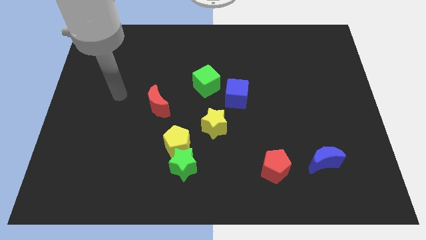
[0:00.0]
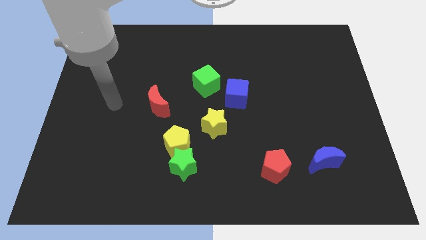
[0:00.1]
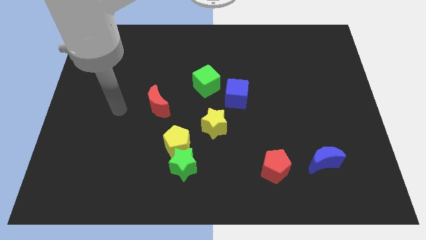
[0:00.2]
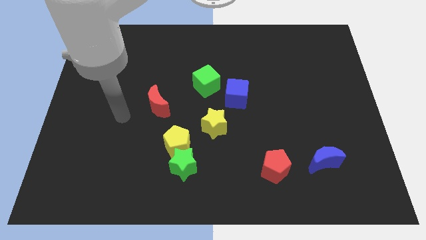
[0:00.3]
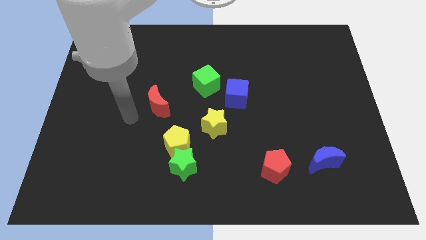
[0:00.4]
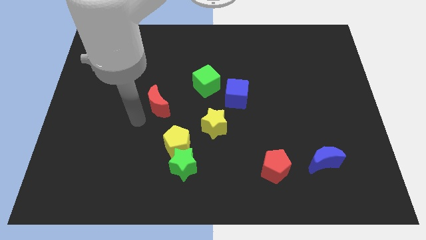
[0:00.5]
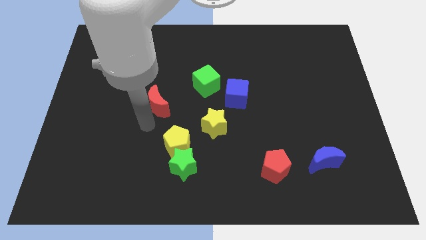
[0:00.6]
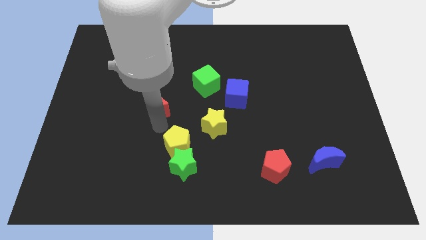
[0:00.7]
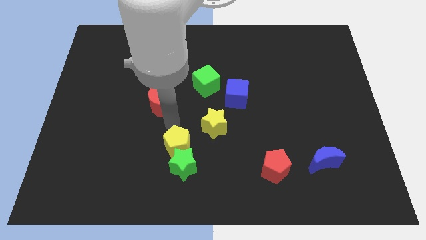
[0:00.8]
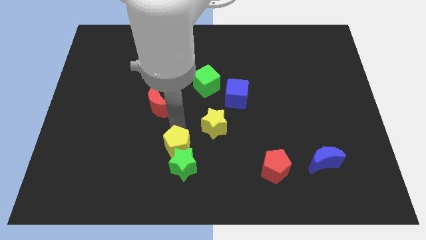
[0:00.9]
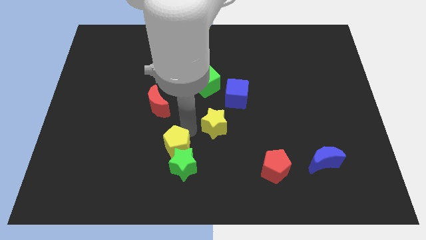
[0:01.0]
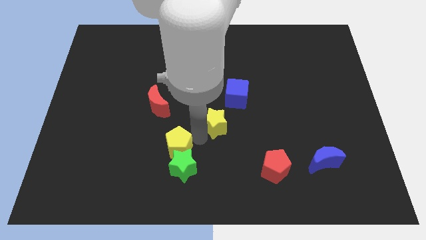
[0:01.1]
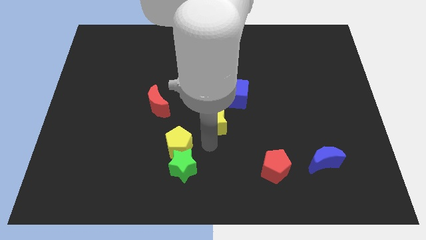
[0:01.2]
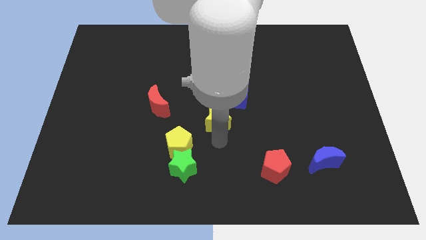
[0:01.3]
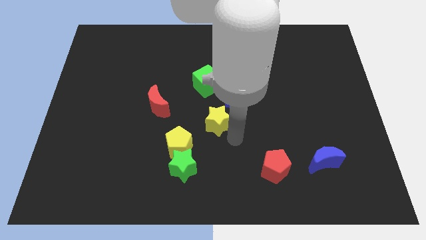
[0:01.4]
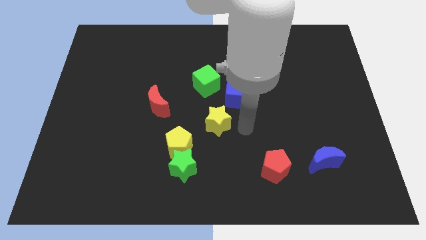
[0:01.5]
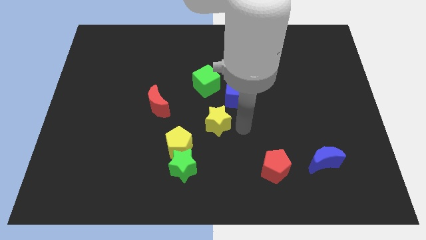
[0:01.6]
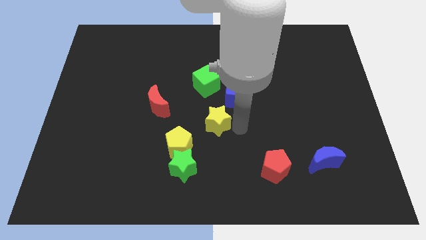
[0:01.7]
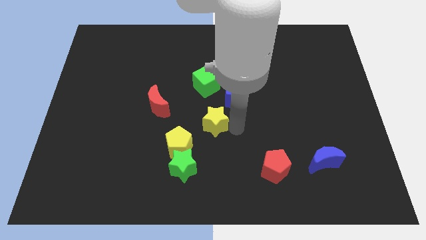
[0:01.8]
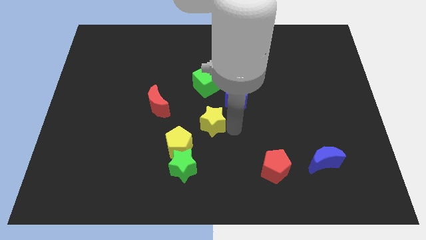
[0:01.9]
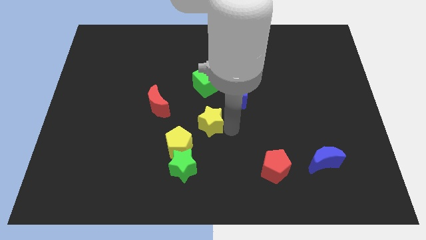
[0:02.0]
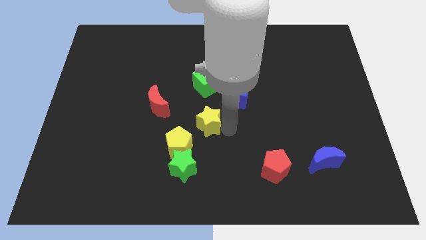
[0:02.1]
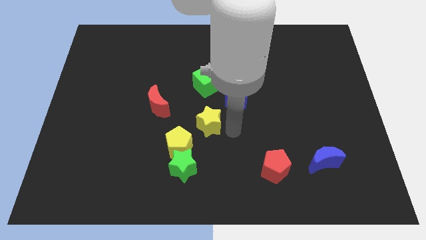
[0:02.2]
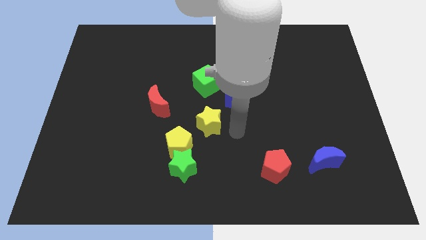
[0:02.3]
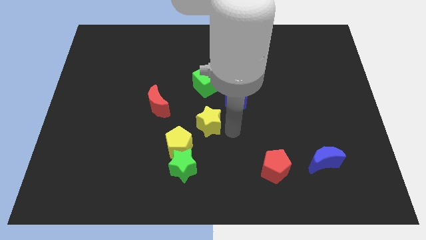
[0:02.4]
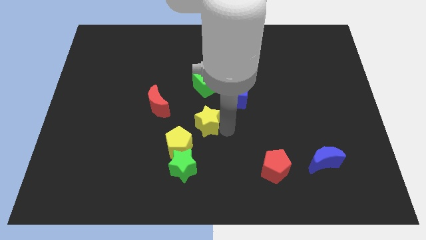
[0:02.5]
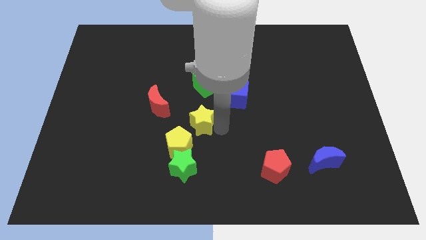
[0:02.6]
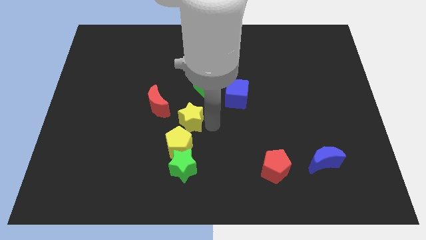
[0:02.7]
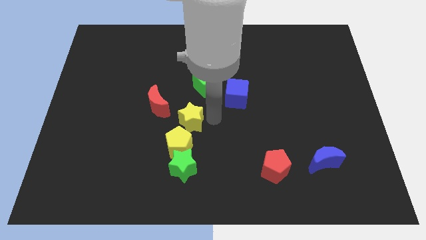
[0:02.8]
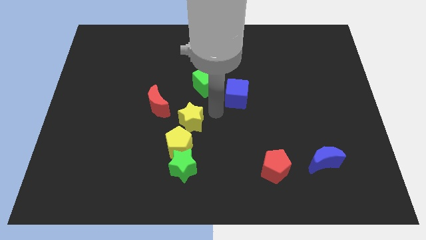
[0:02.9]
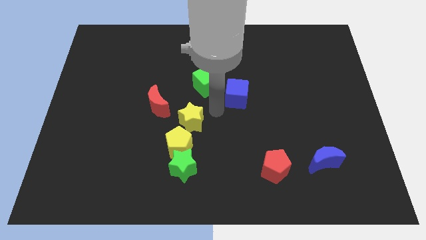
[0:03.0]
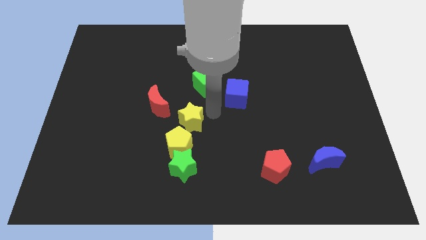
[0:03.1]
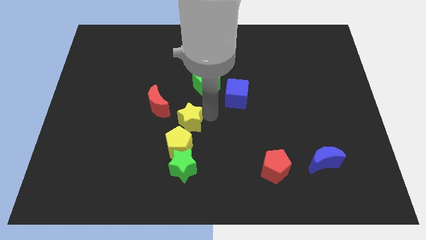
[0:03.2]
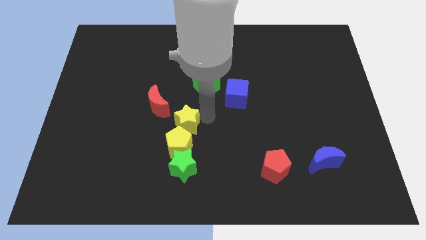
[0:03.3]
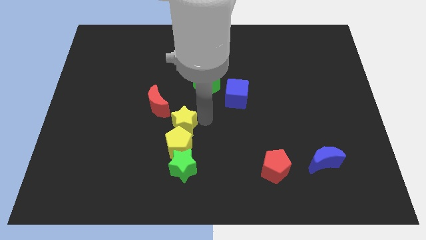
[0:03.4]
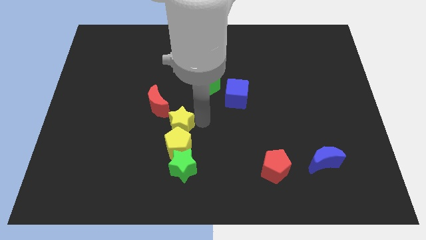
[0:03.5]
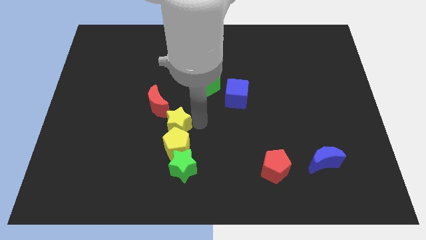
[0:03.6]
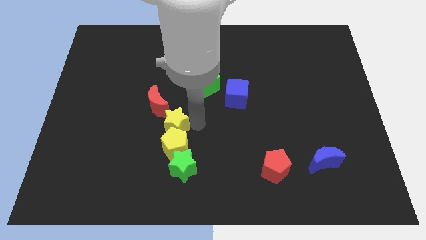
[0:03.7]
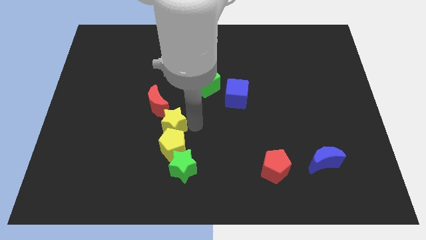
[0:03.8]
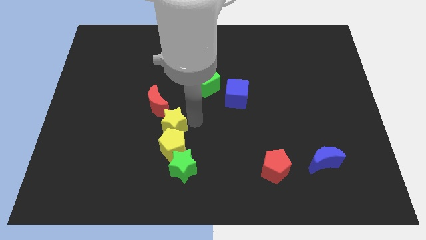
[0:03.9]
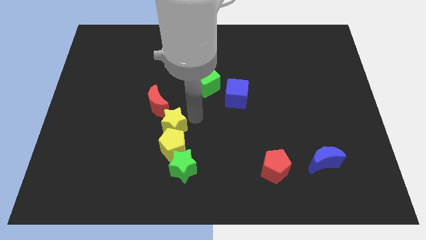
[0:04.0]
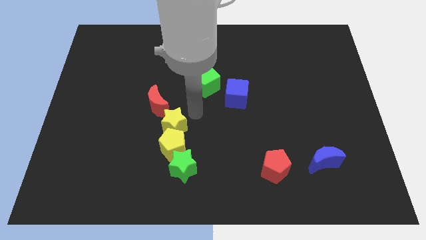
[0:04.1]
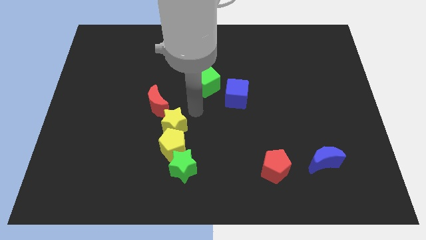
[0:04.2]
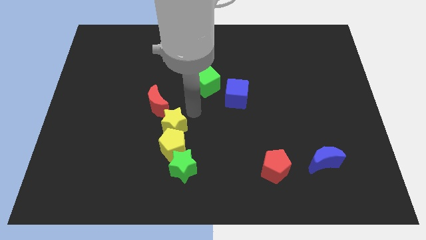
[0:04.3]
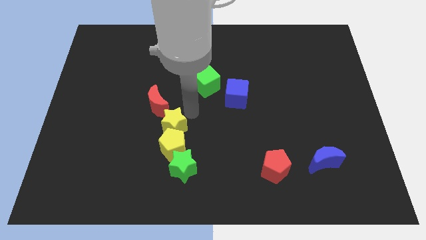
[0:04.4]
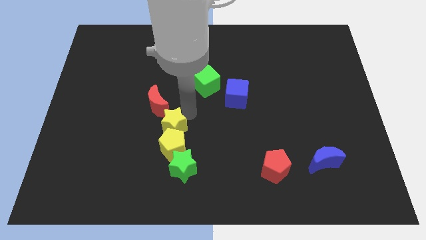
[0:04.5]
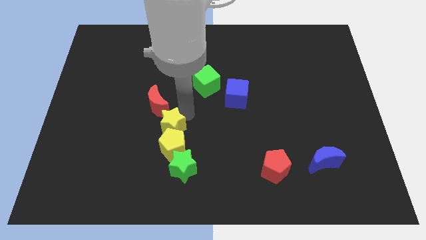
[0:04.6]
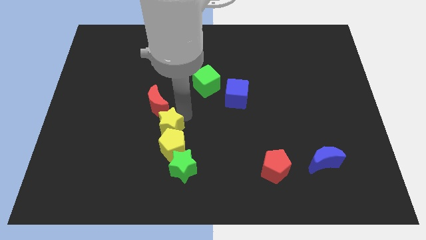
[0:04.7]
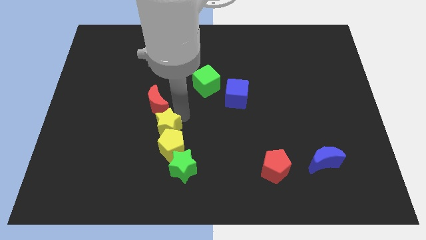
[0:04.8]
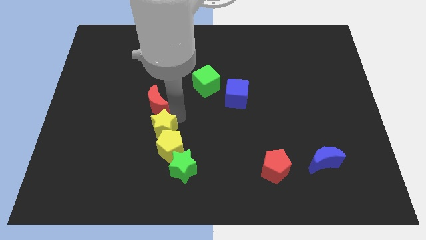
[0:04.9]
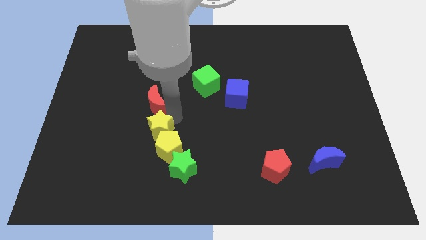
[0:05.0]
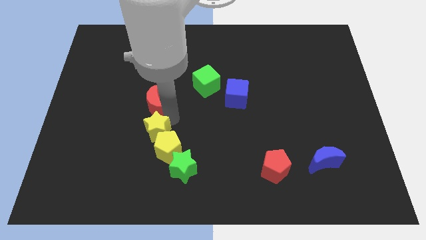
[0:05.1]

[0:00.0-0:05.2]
slightly move the yellow star diagonally downwards and left

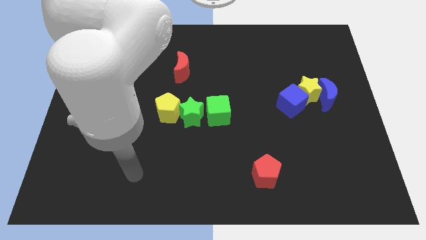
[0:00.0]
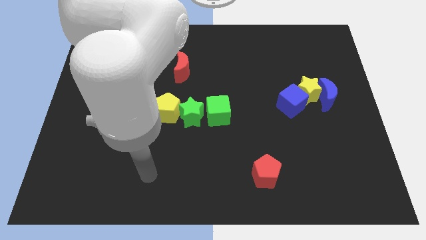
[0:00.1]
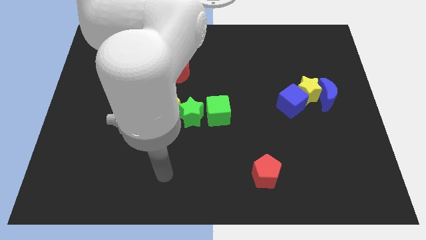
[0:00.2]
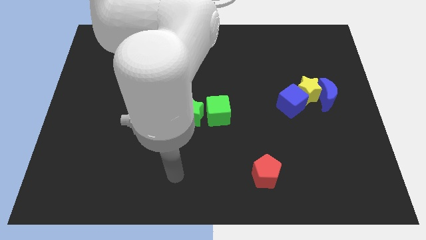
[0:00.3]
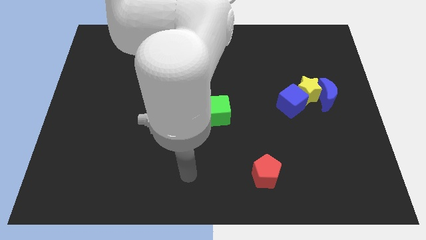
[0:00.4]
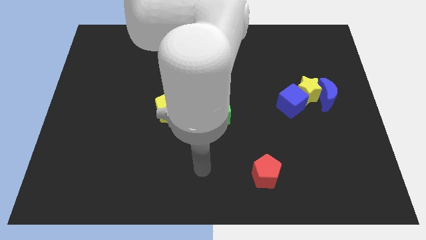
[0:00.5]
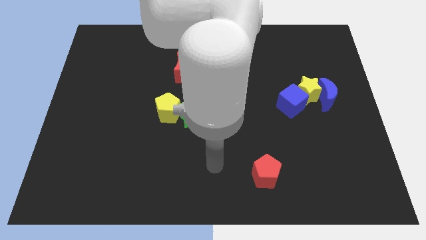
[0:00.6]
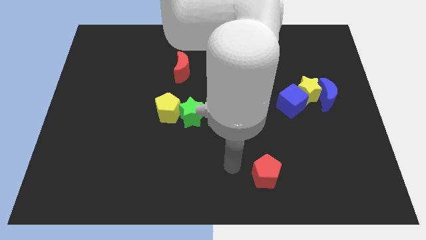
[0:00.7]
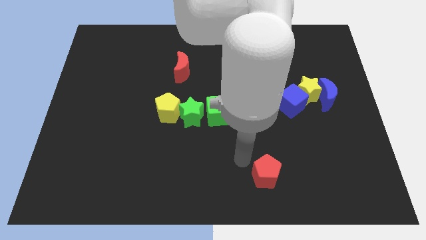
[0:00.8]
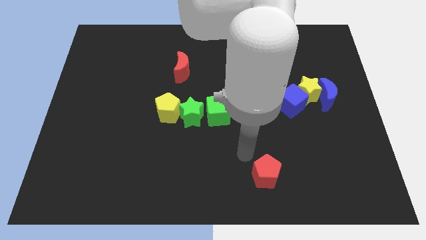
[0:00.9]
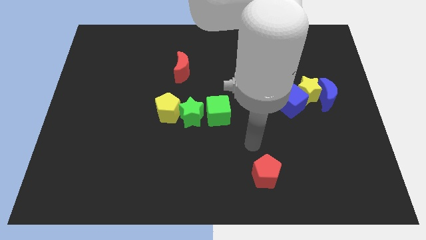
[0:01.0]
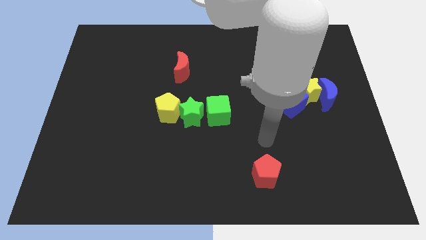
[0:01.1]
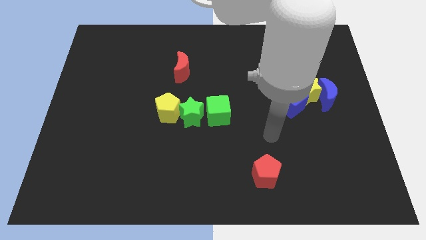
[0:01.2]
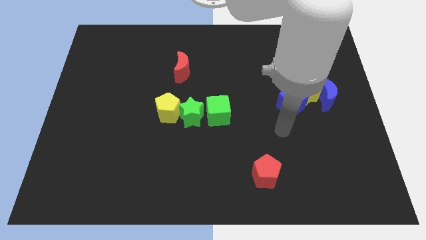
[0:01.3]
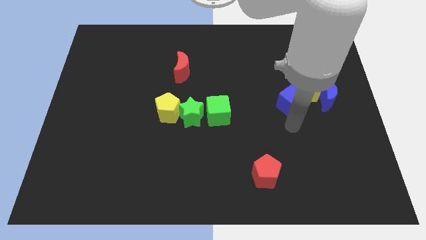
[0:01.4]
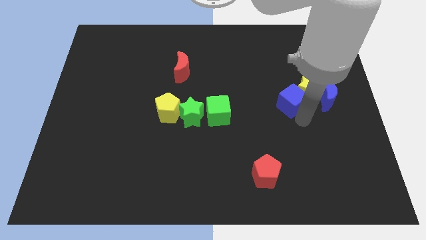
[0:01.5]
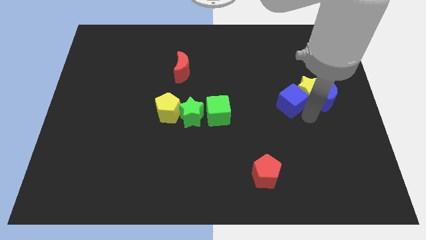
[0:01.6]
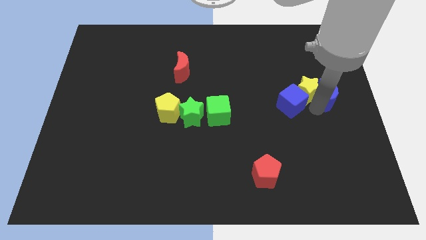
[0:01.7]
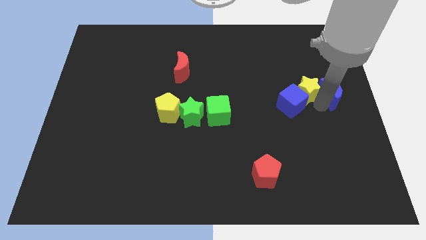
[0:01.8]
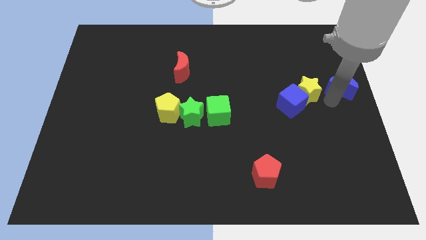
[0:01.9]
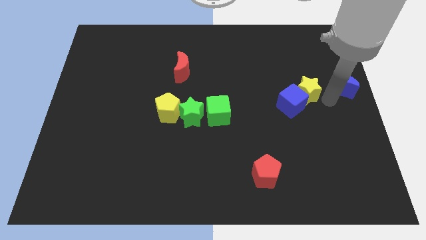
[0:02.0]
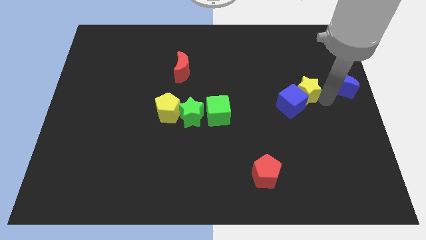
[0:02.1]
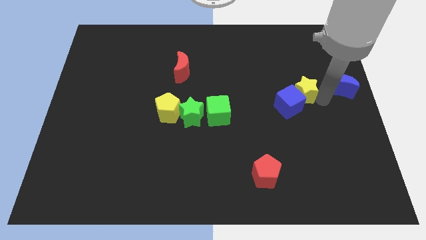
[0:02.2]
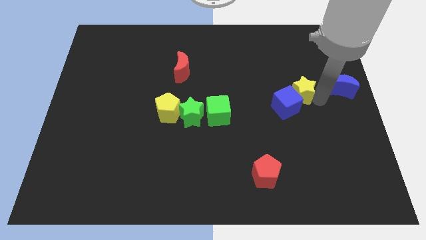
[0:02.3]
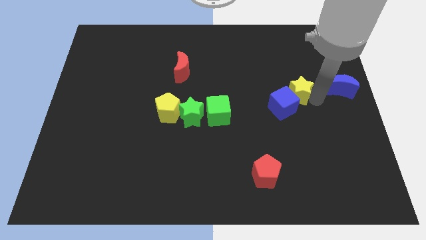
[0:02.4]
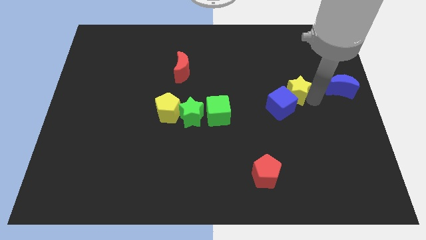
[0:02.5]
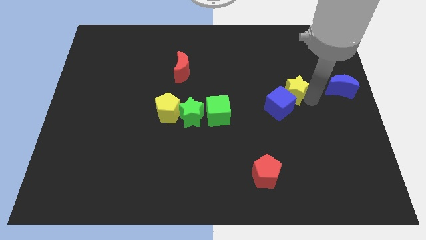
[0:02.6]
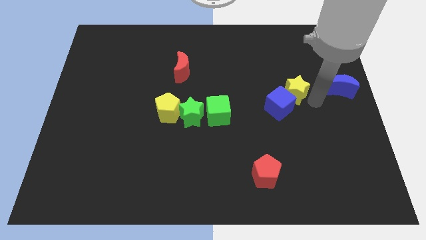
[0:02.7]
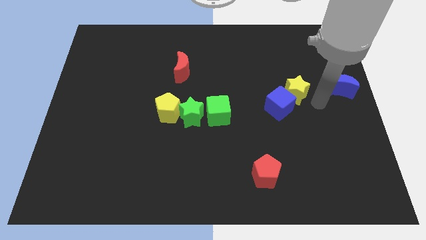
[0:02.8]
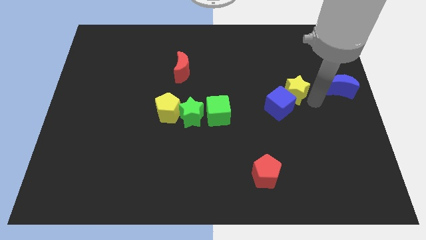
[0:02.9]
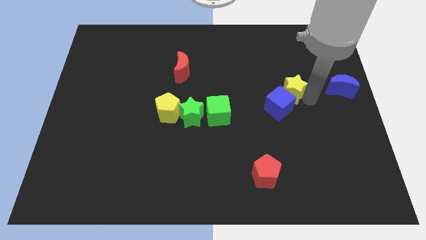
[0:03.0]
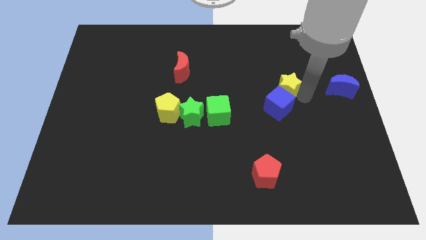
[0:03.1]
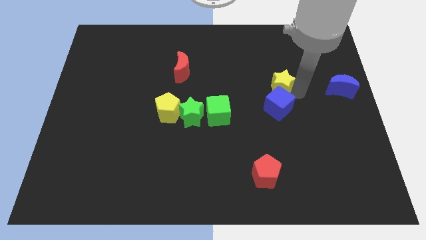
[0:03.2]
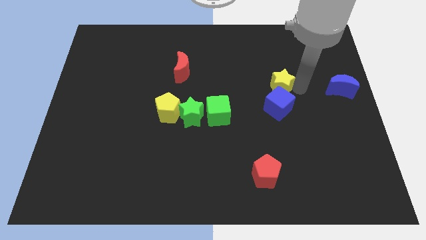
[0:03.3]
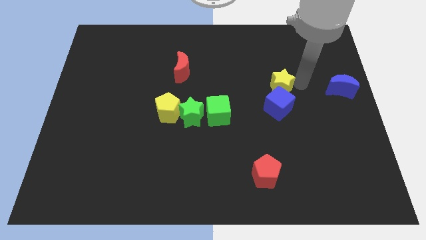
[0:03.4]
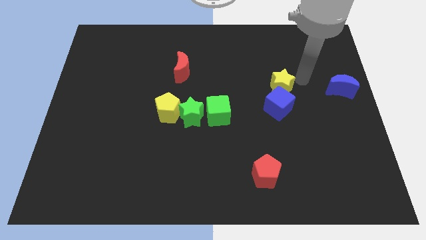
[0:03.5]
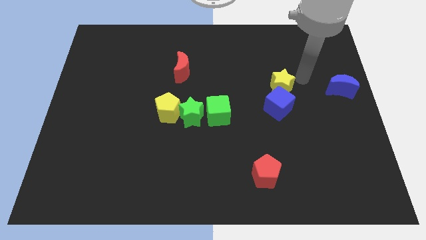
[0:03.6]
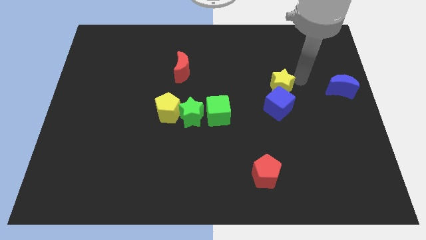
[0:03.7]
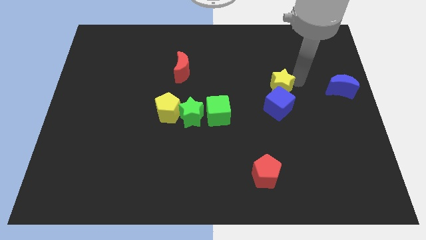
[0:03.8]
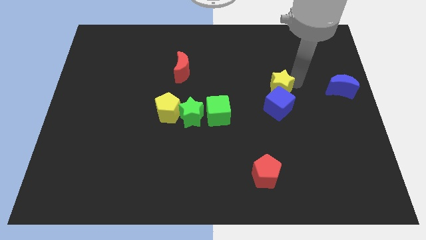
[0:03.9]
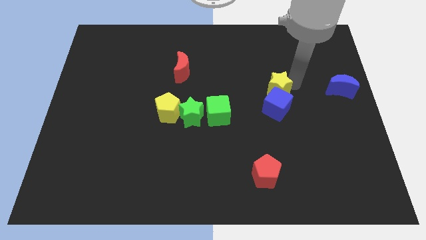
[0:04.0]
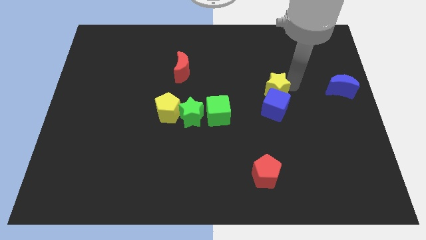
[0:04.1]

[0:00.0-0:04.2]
move the yellow star a little bit to the left
